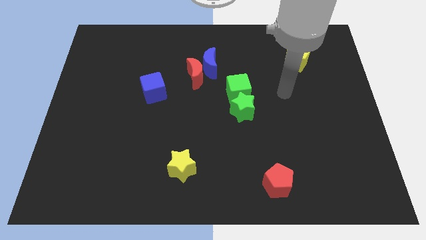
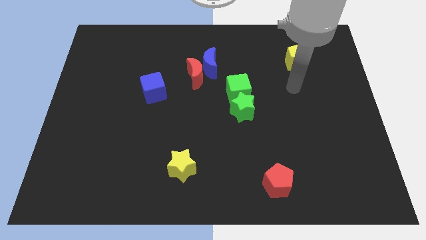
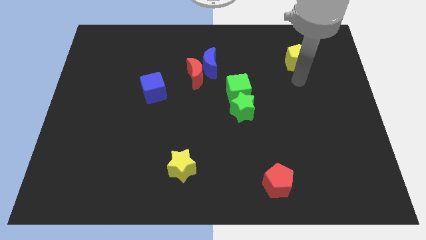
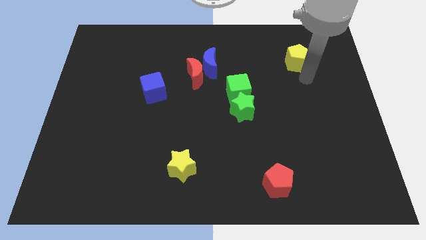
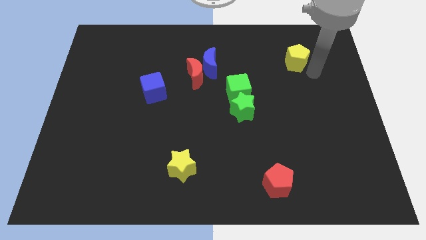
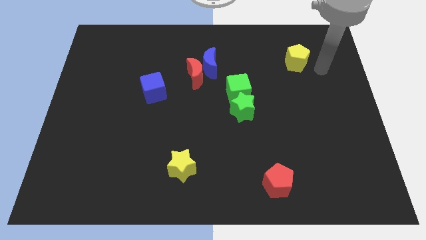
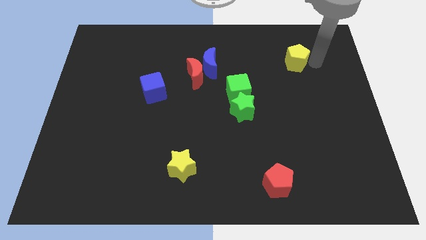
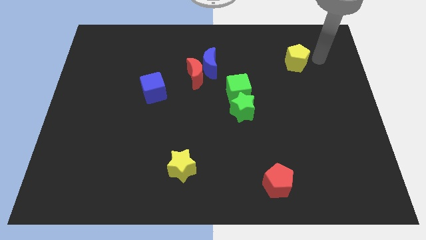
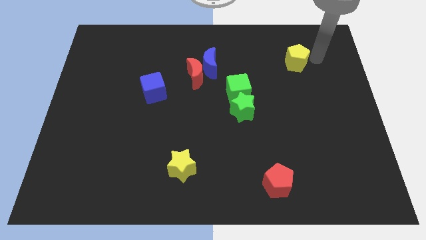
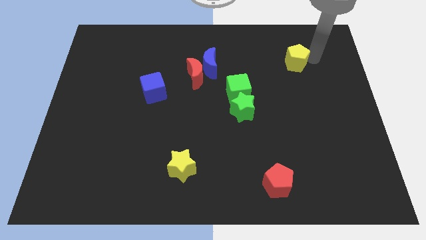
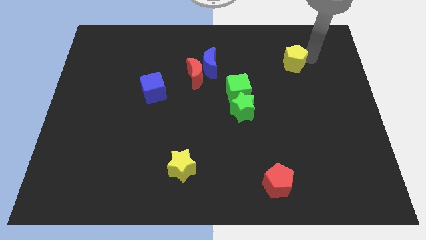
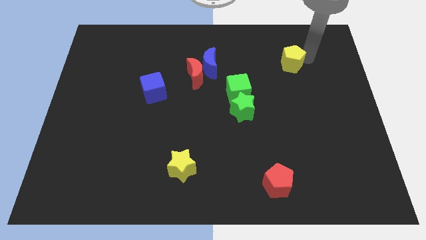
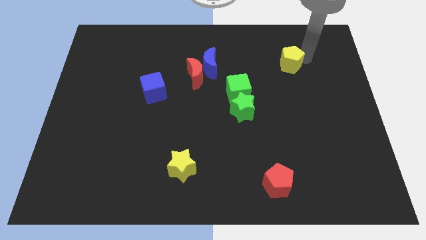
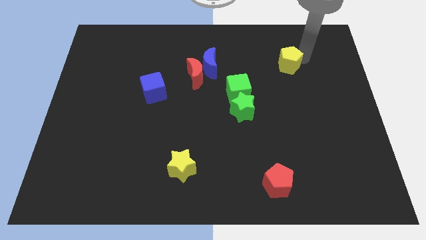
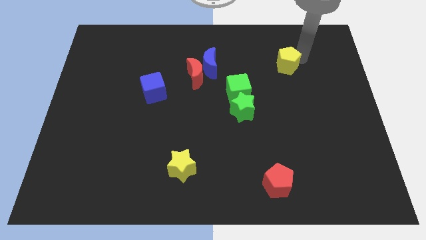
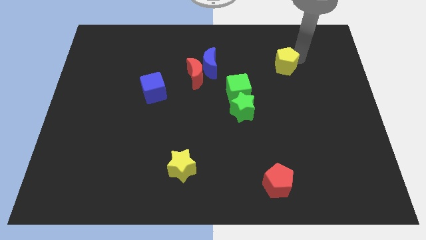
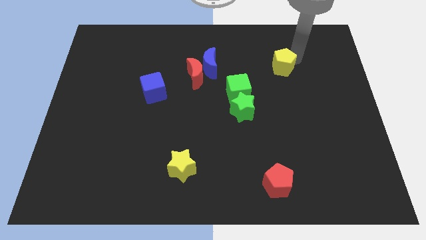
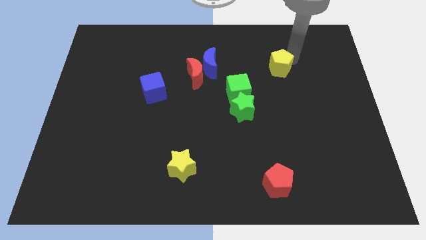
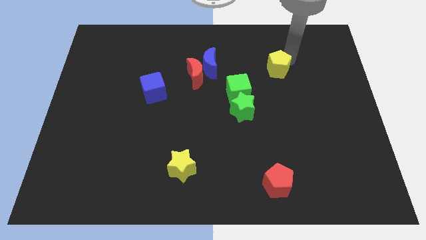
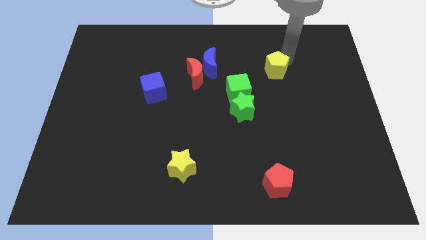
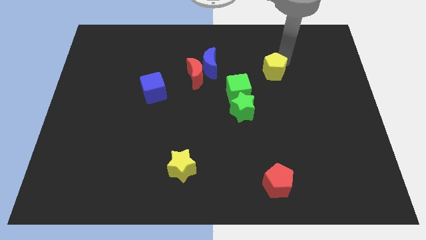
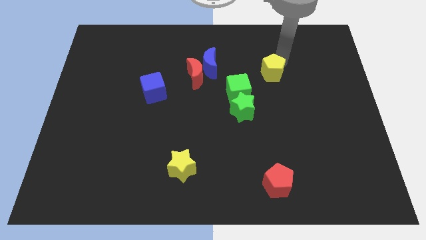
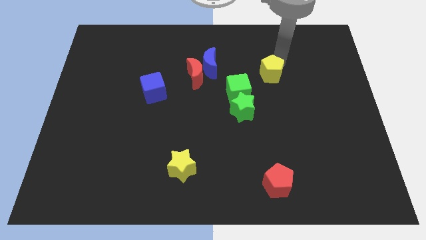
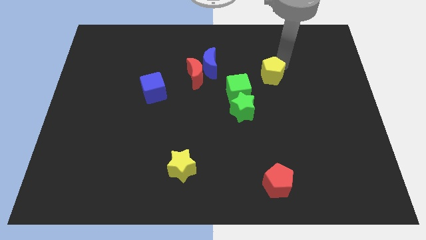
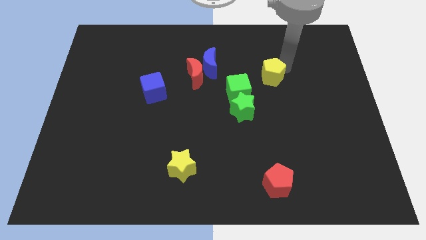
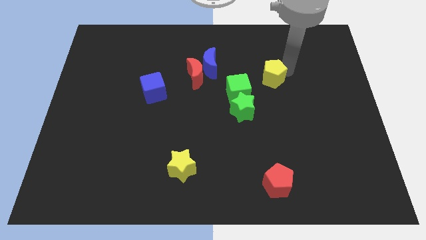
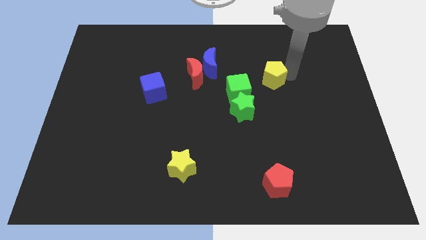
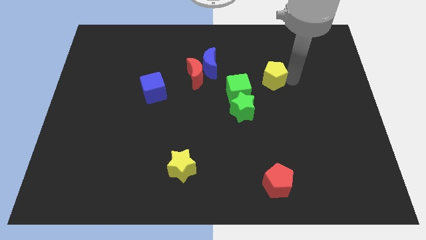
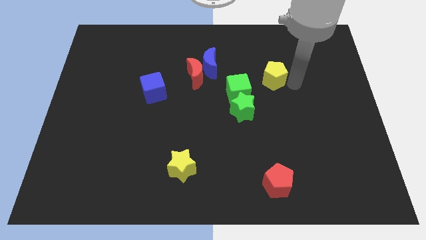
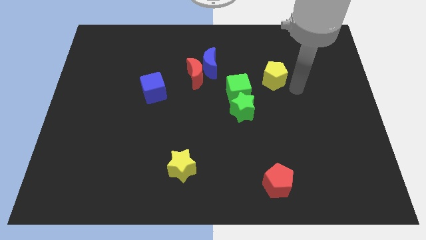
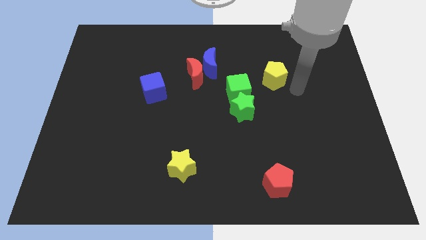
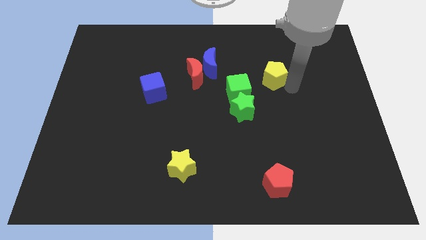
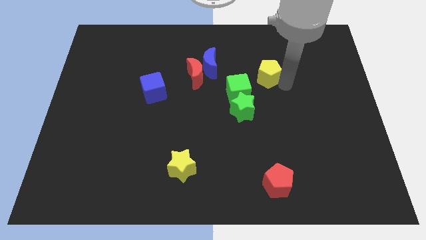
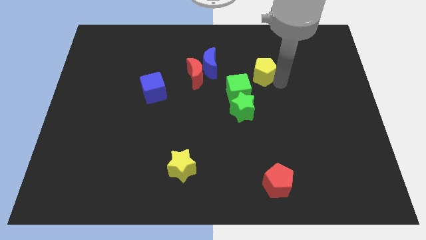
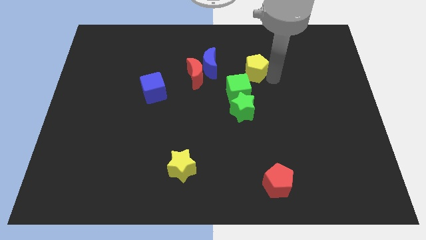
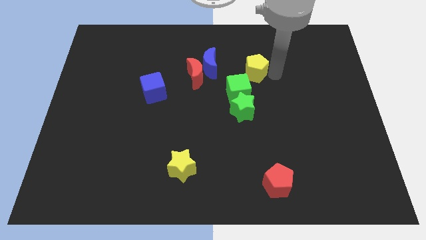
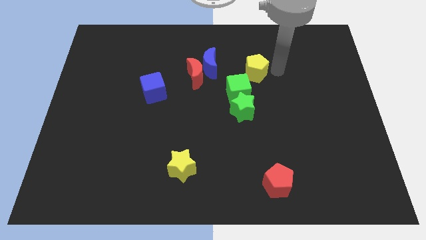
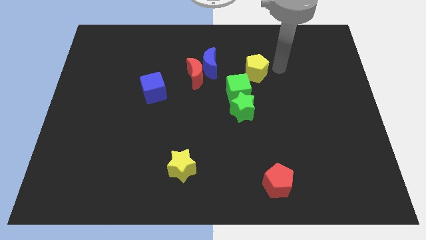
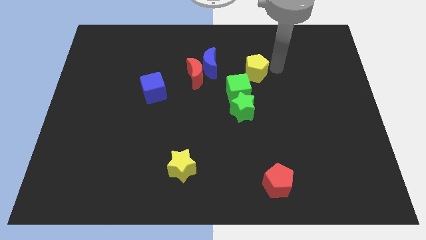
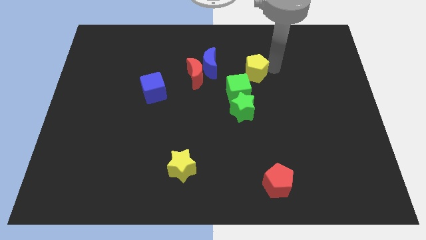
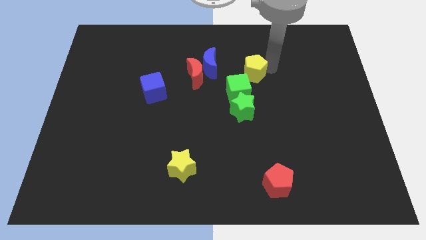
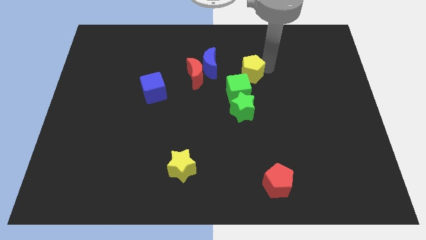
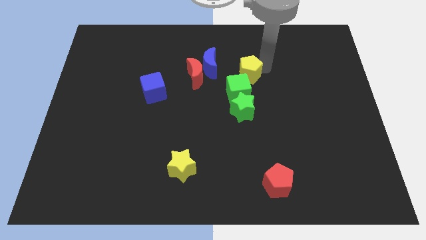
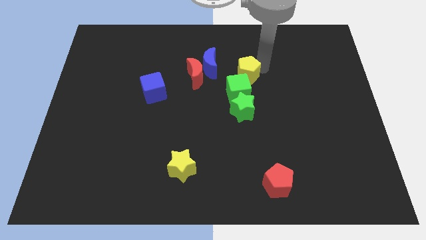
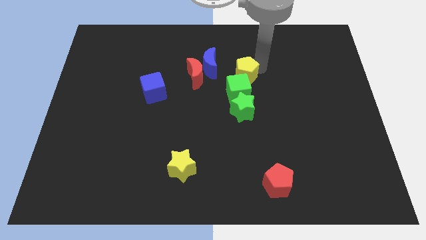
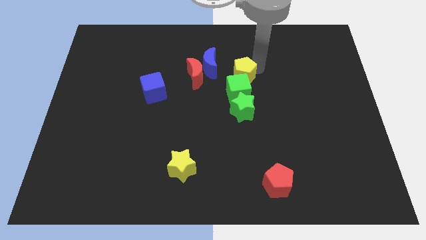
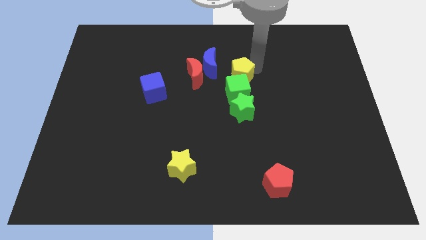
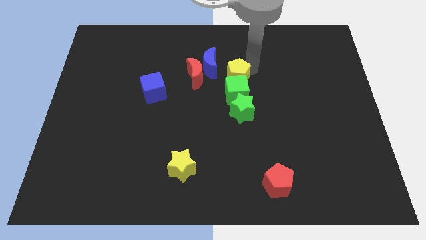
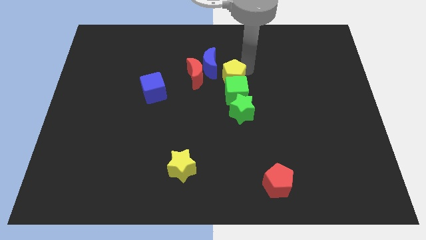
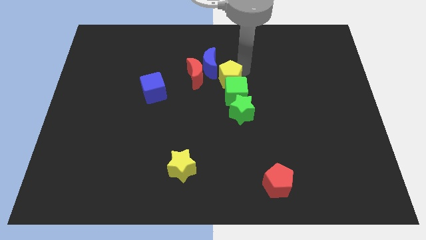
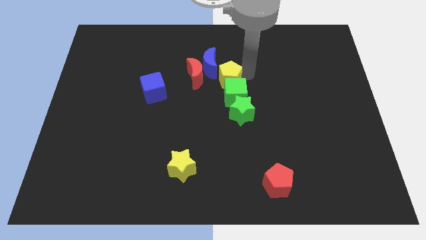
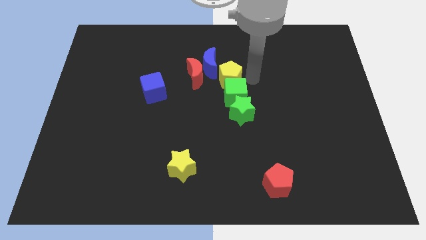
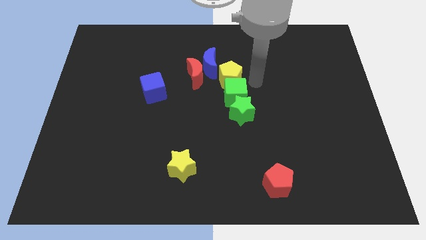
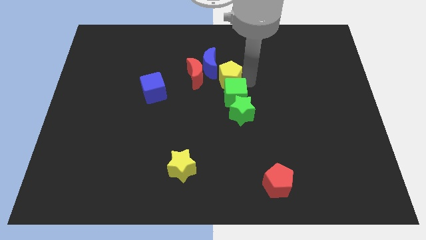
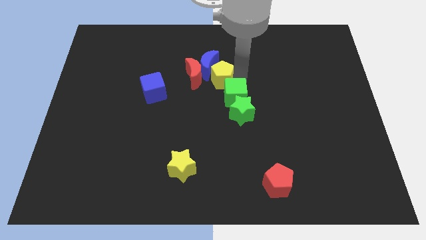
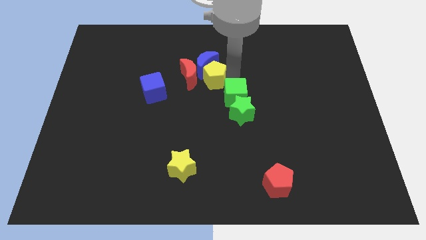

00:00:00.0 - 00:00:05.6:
put the yellow pentagon close to the red moon

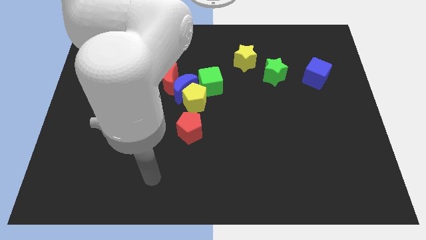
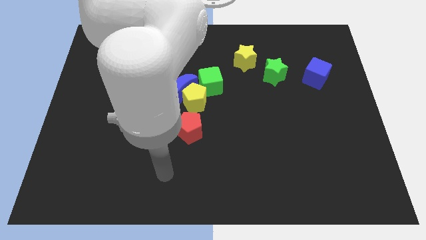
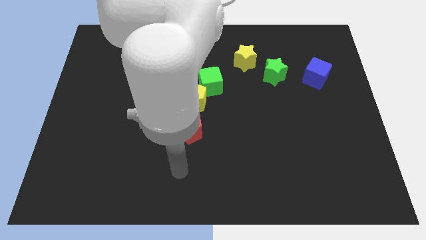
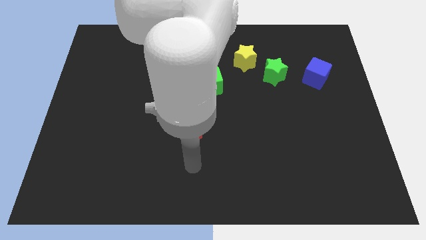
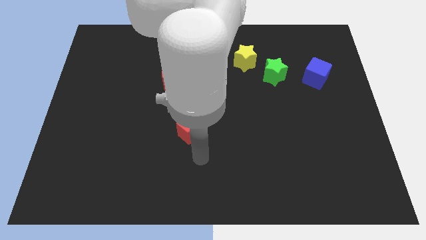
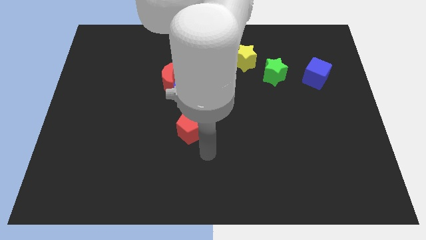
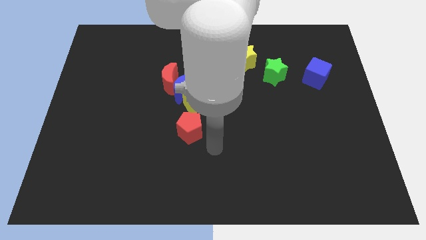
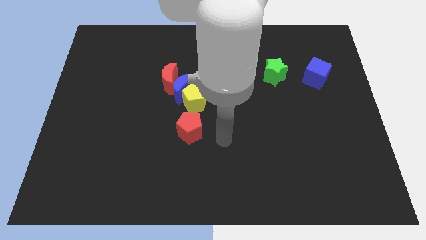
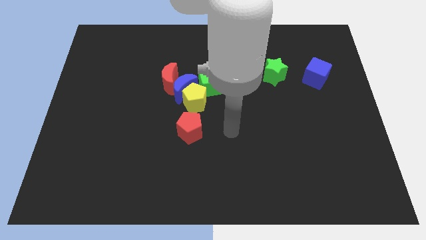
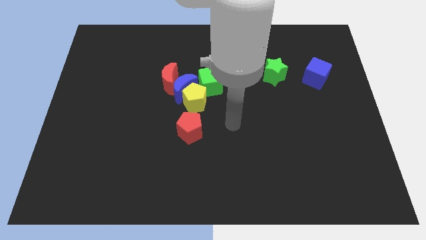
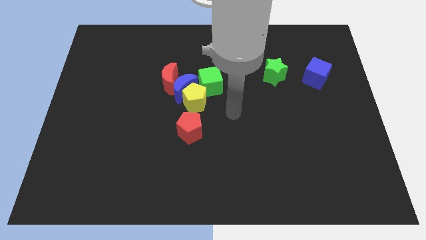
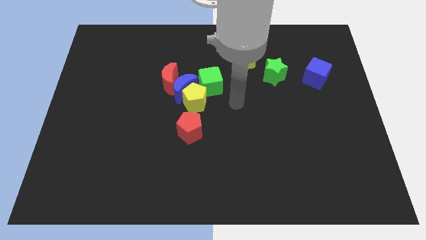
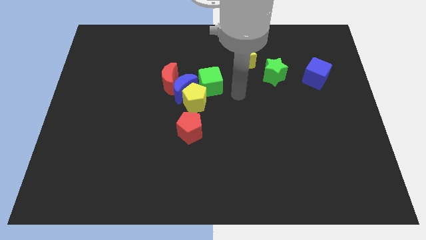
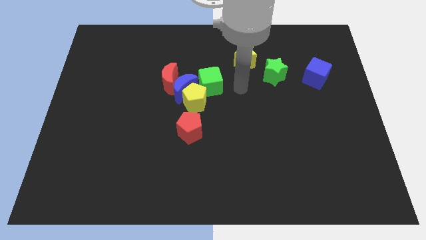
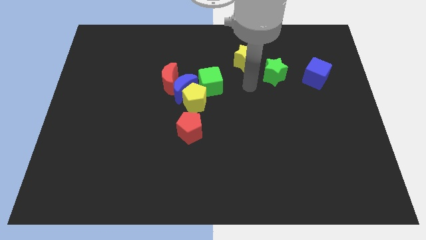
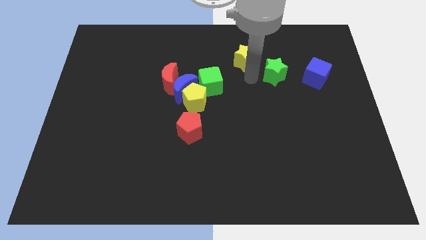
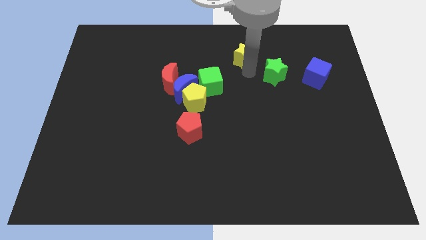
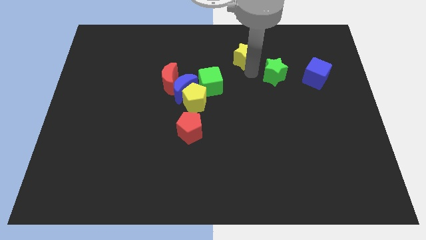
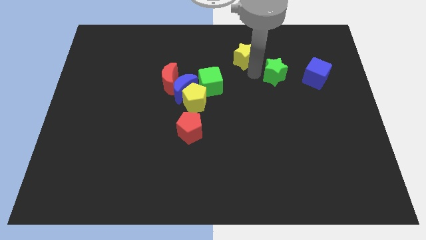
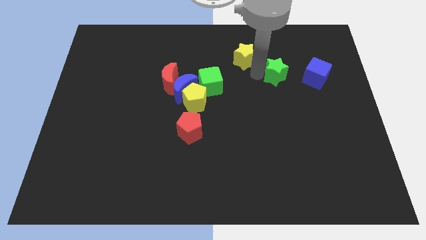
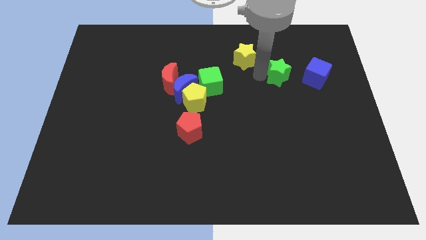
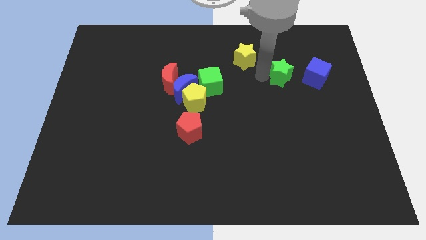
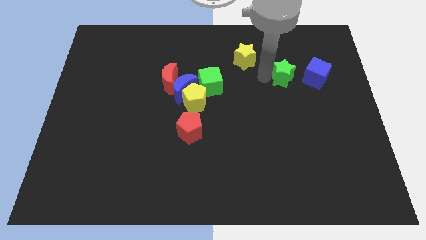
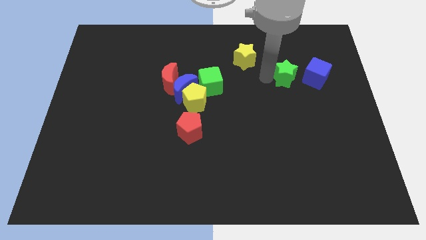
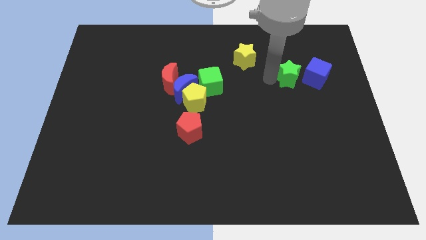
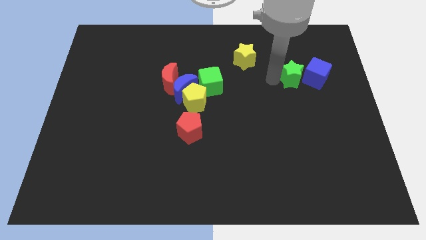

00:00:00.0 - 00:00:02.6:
move the green star to the blue cube
